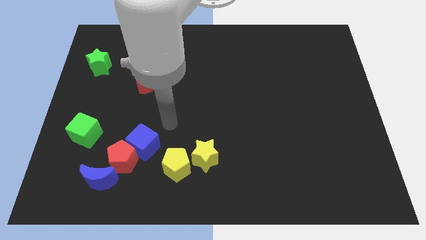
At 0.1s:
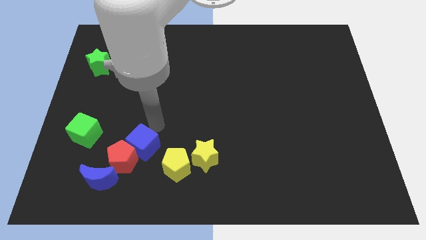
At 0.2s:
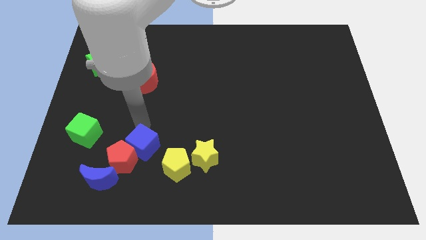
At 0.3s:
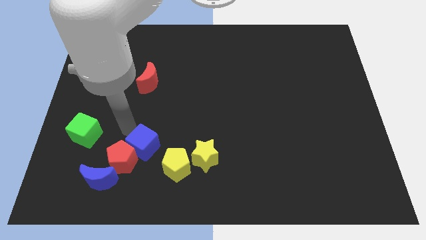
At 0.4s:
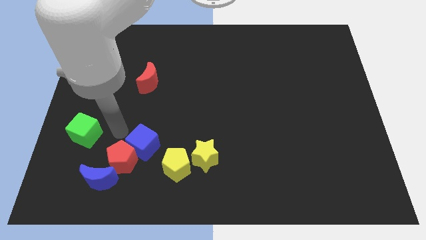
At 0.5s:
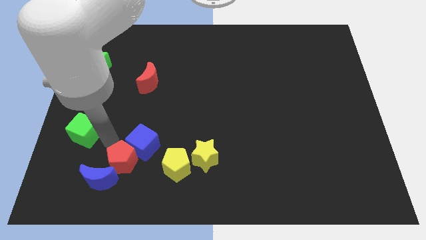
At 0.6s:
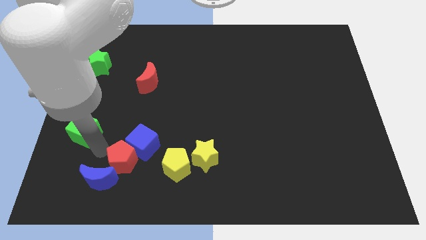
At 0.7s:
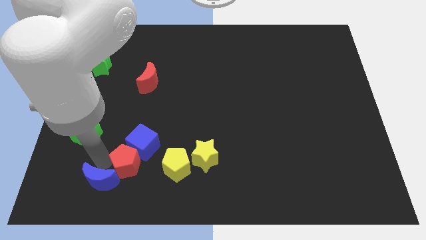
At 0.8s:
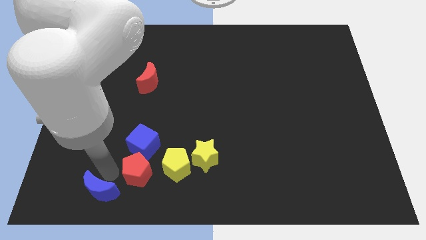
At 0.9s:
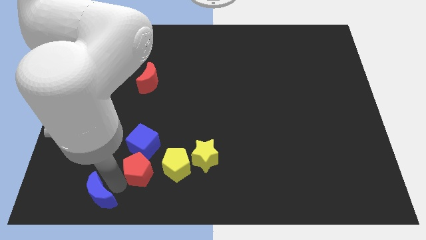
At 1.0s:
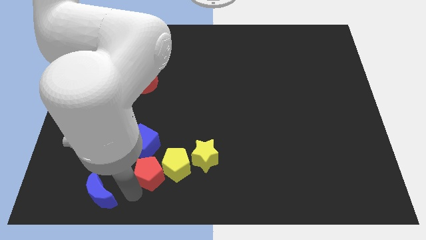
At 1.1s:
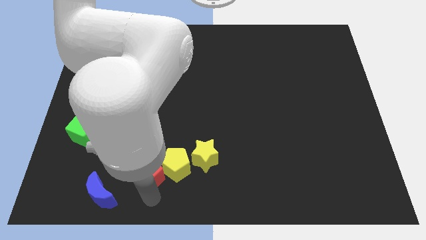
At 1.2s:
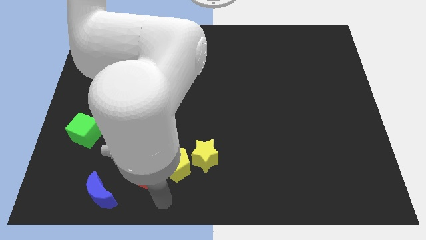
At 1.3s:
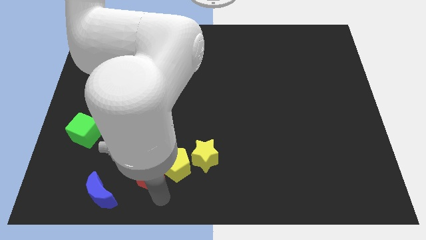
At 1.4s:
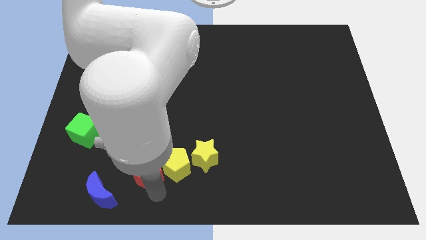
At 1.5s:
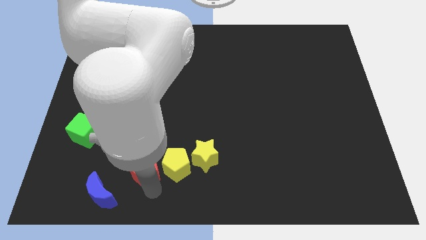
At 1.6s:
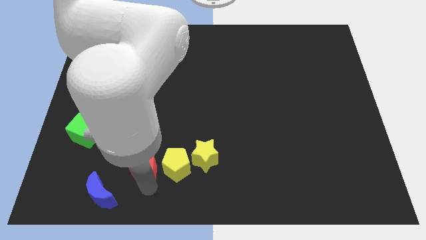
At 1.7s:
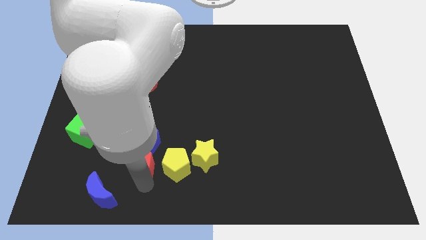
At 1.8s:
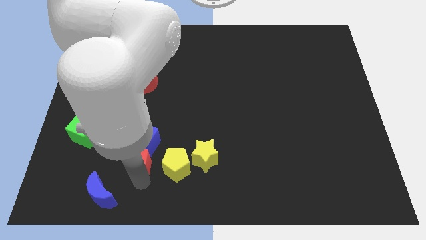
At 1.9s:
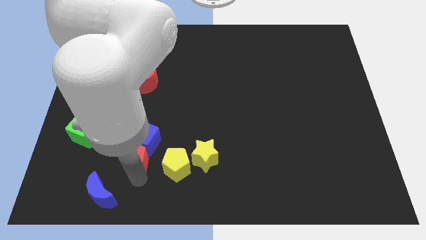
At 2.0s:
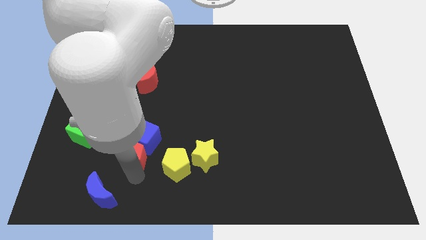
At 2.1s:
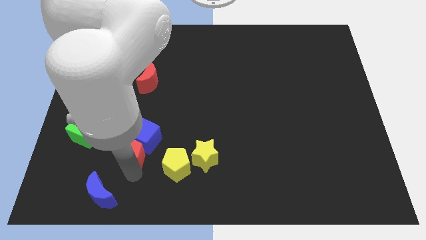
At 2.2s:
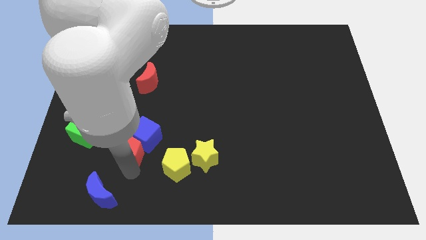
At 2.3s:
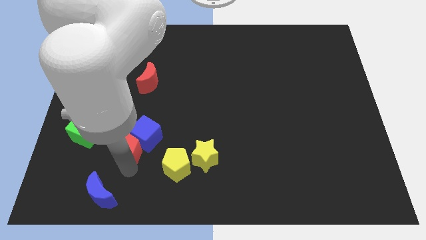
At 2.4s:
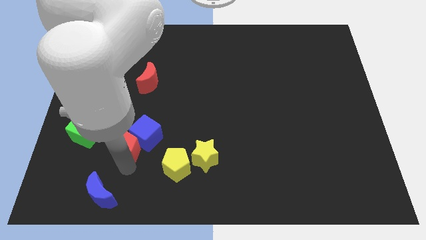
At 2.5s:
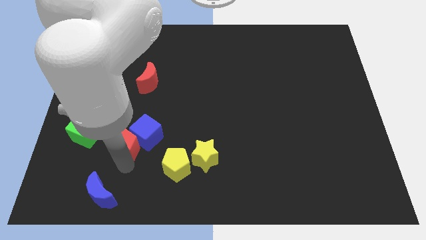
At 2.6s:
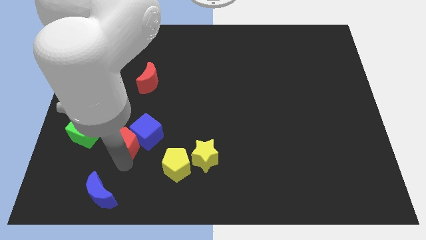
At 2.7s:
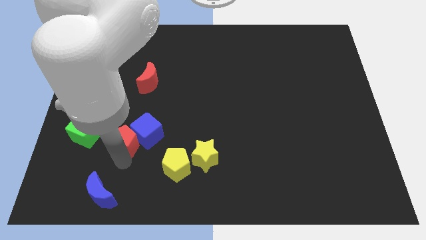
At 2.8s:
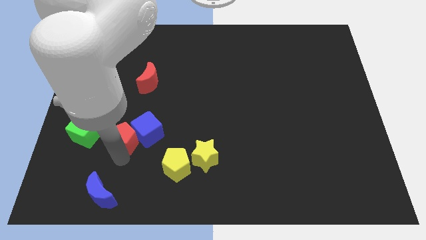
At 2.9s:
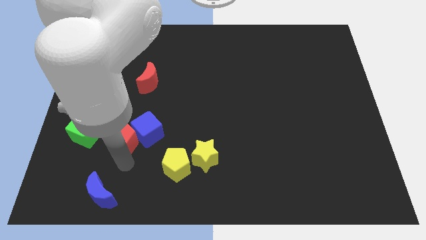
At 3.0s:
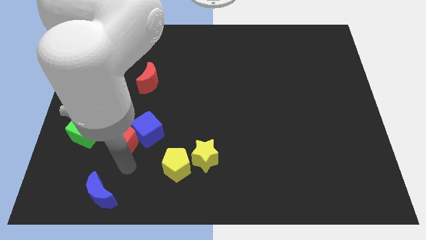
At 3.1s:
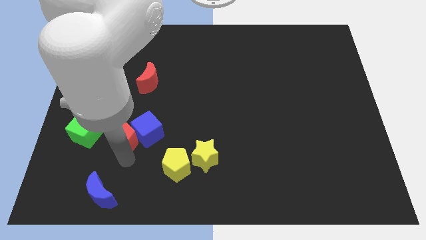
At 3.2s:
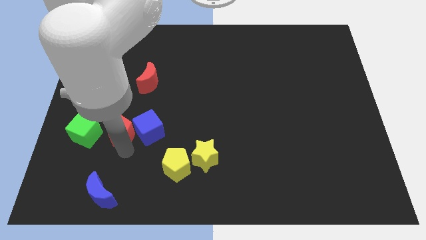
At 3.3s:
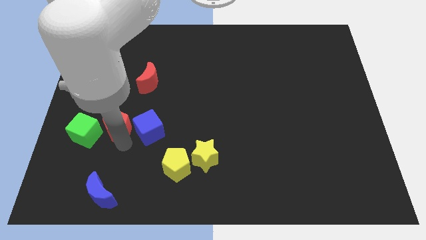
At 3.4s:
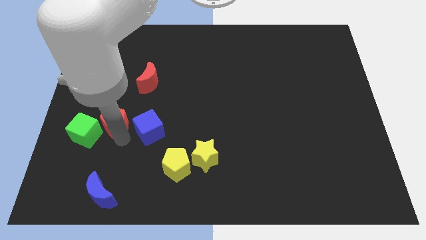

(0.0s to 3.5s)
separate the red pentagon from the blue cube and blue moon

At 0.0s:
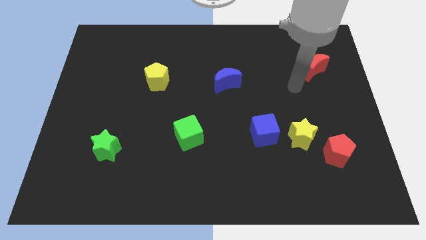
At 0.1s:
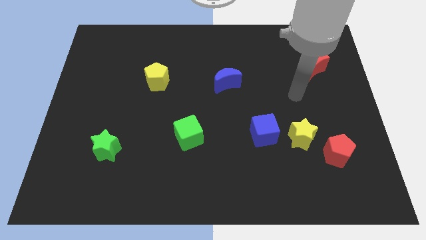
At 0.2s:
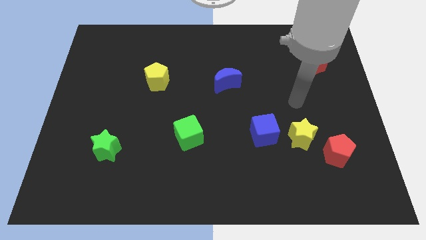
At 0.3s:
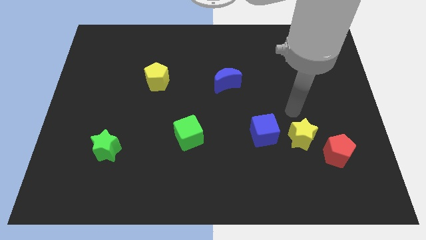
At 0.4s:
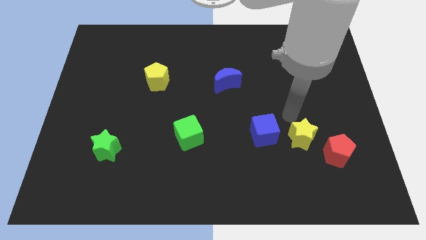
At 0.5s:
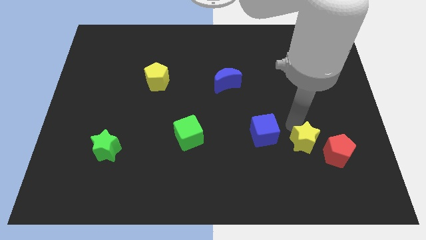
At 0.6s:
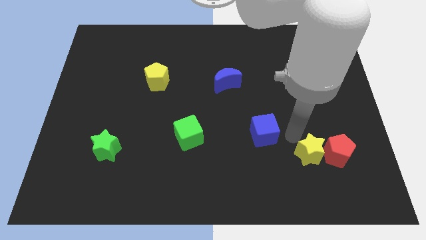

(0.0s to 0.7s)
pull the blue cube apart from the yellow star

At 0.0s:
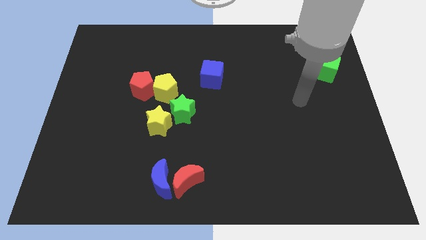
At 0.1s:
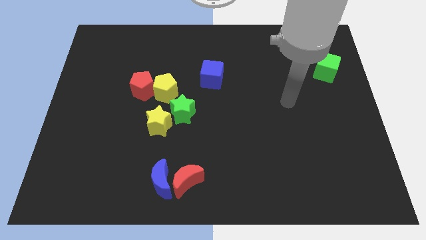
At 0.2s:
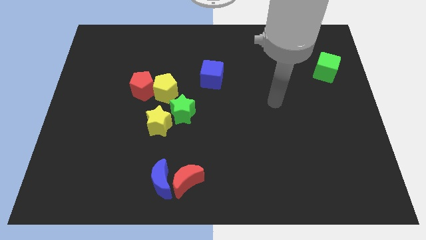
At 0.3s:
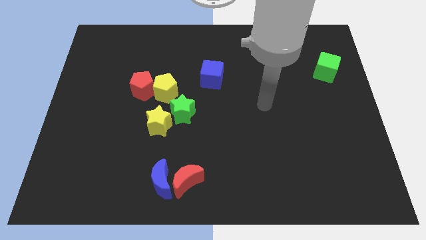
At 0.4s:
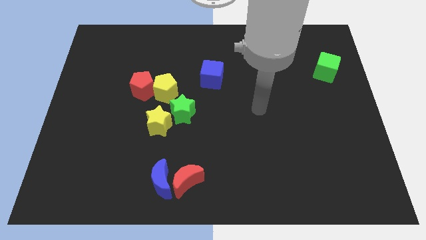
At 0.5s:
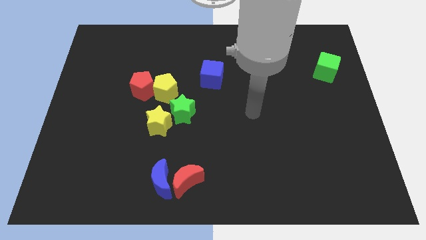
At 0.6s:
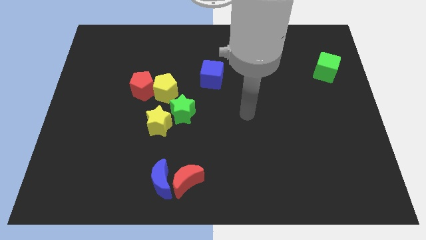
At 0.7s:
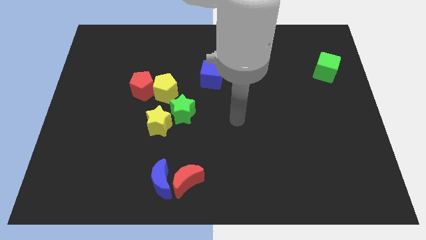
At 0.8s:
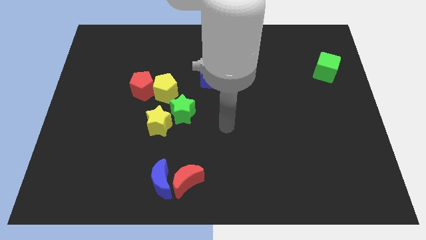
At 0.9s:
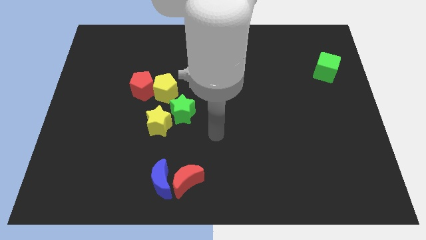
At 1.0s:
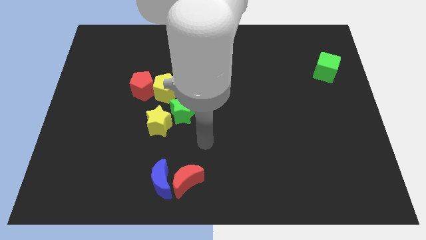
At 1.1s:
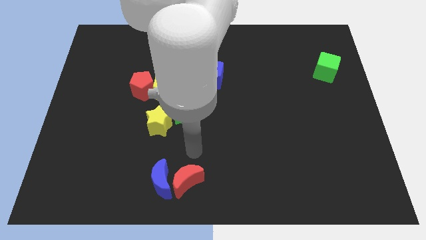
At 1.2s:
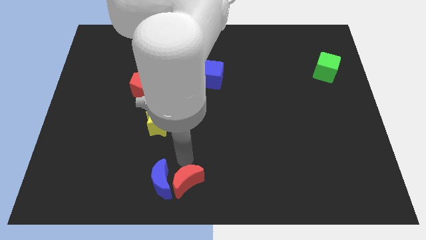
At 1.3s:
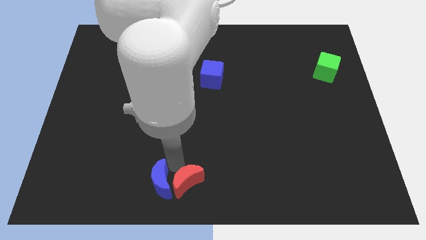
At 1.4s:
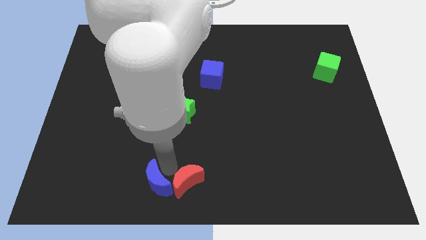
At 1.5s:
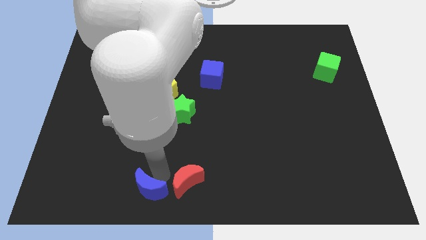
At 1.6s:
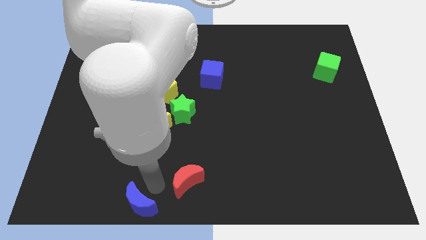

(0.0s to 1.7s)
separate the red moon from the blue moon

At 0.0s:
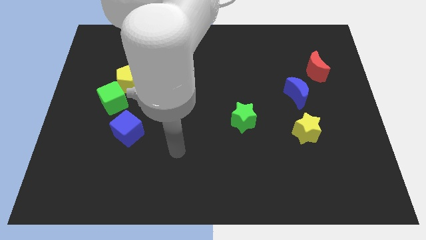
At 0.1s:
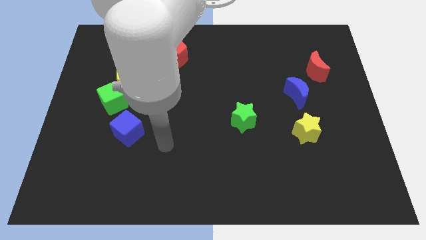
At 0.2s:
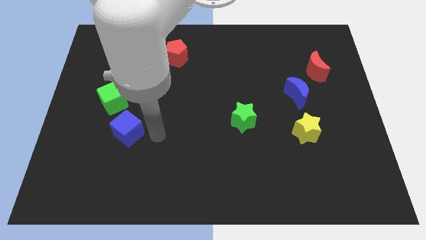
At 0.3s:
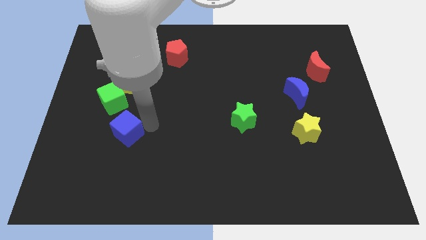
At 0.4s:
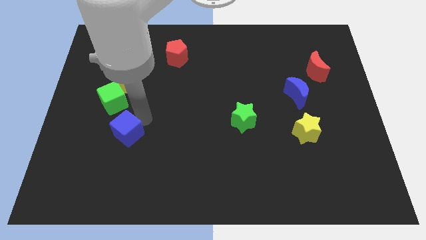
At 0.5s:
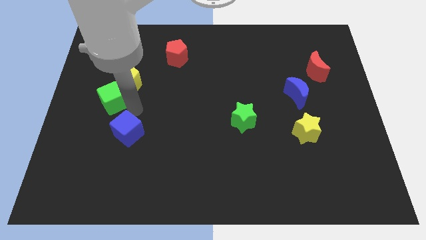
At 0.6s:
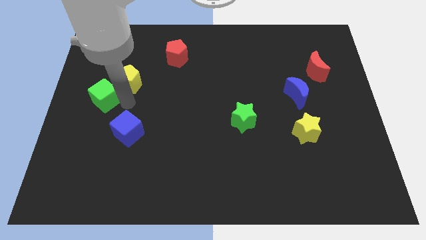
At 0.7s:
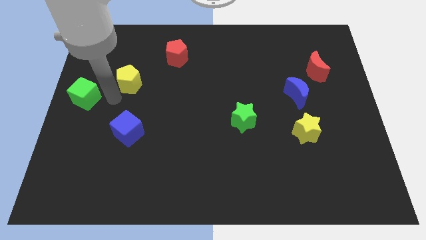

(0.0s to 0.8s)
pull the yellow pentagon apart from the green cube

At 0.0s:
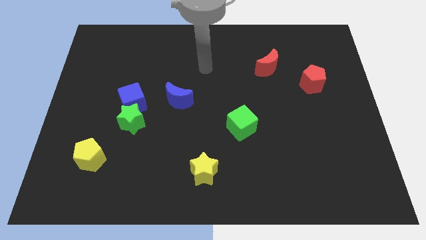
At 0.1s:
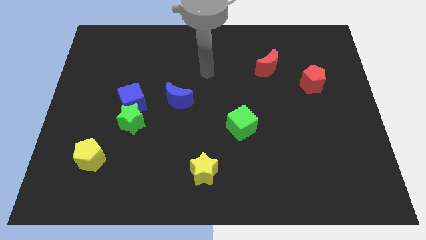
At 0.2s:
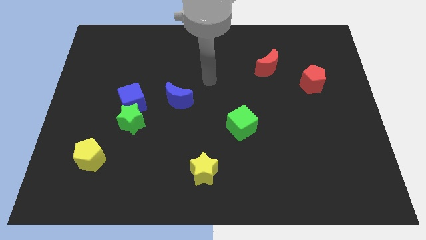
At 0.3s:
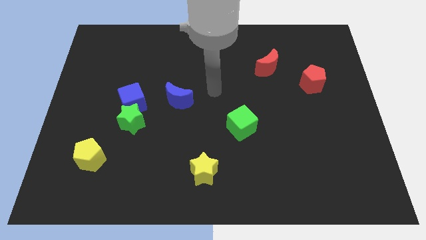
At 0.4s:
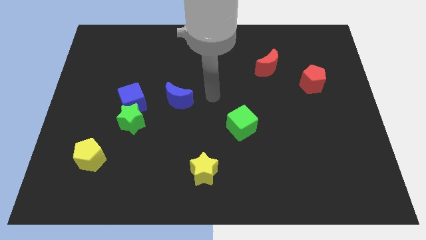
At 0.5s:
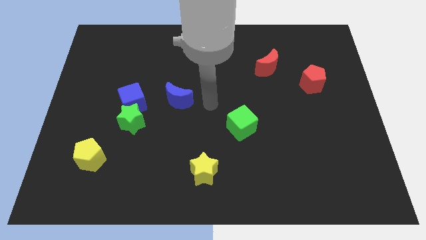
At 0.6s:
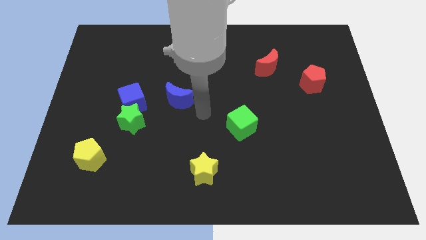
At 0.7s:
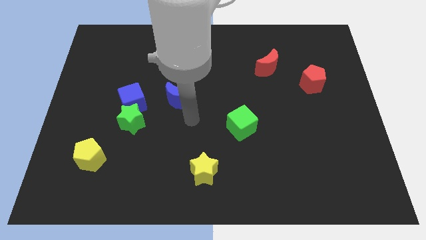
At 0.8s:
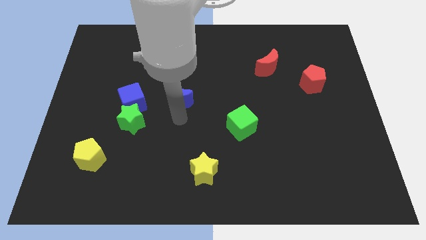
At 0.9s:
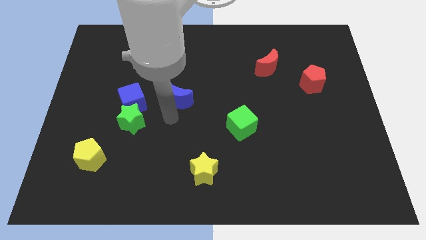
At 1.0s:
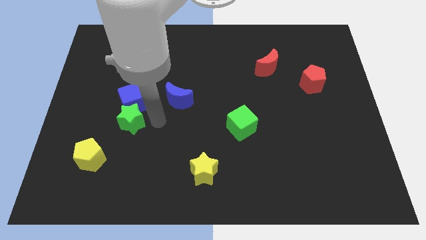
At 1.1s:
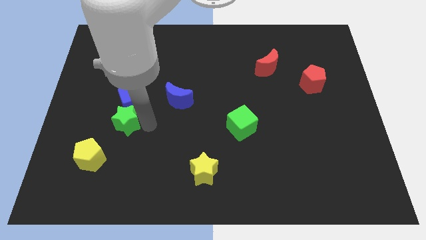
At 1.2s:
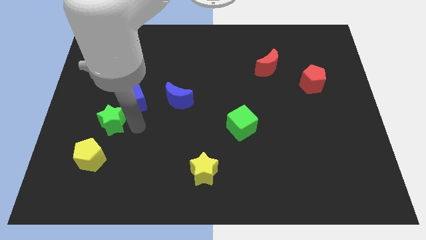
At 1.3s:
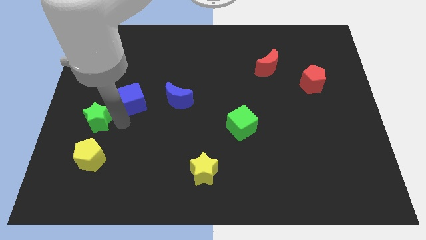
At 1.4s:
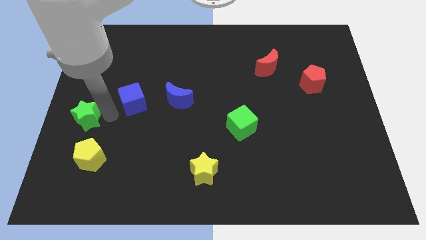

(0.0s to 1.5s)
pull the blue cube apart from the green star

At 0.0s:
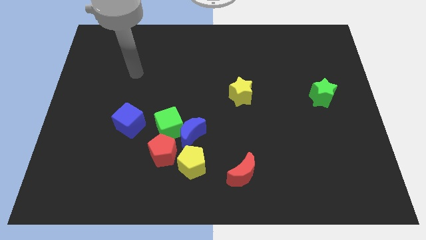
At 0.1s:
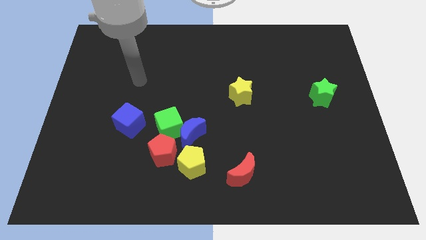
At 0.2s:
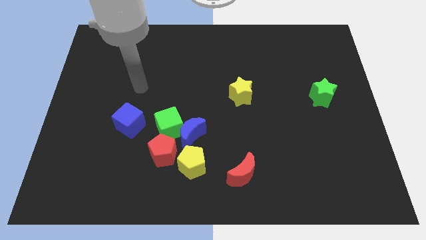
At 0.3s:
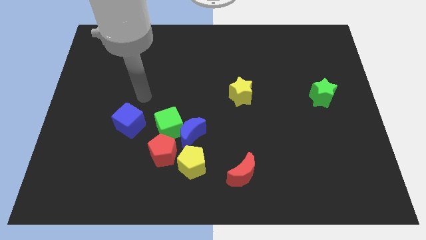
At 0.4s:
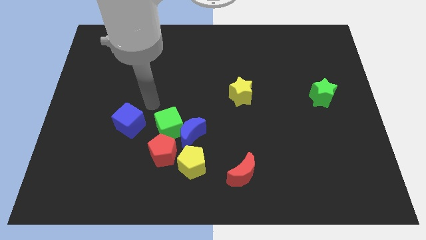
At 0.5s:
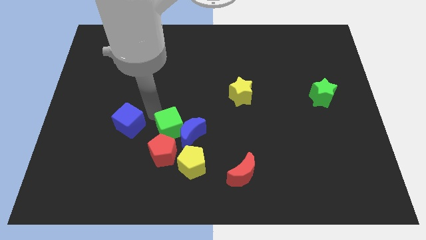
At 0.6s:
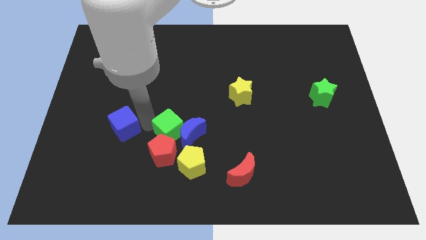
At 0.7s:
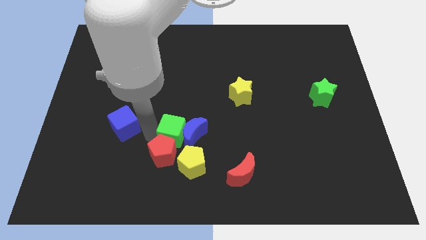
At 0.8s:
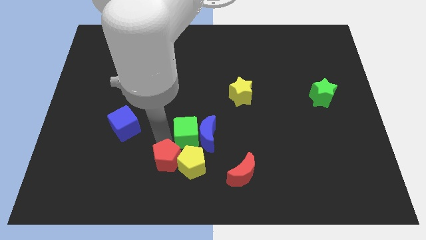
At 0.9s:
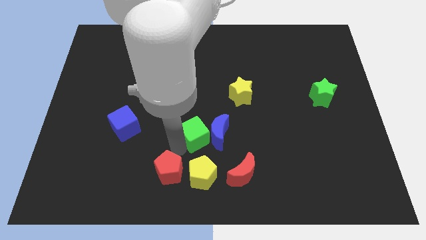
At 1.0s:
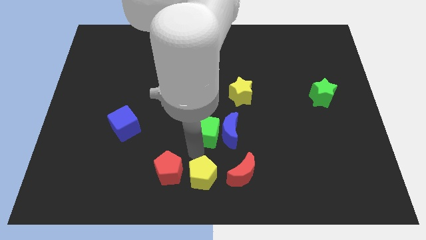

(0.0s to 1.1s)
move the blue moon away from the green cube, yellow pentagon, and red pentagon

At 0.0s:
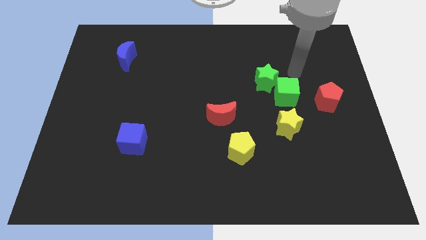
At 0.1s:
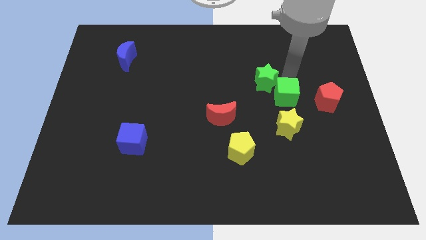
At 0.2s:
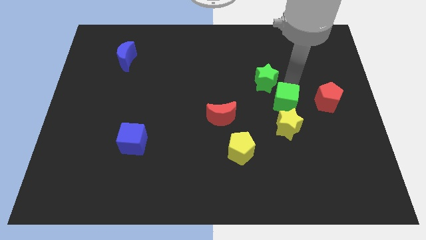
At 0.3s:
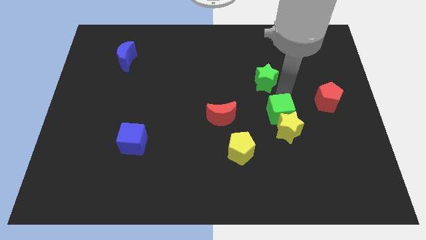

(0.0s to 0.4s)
separate the green star from the green cube
